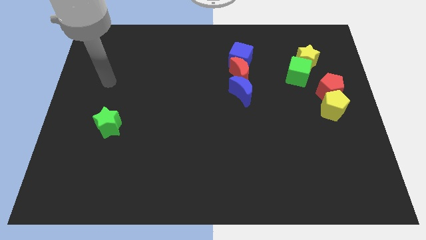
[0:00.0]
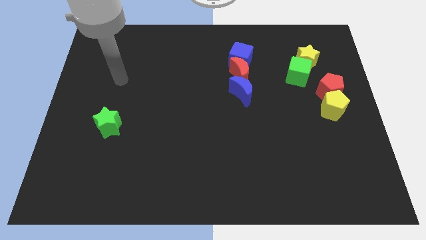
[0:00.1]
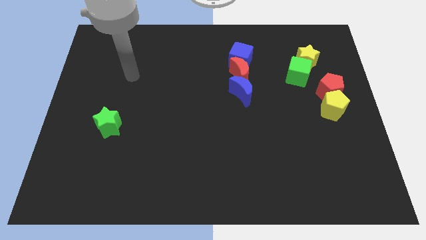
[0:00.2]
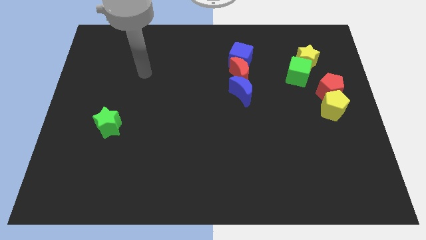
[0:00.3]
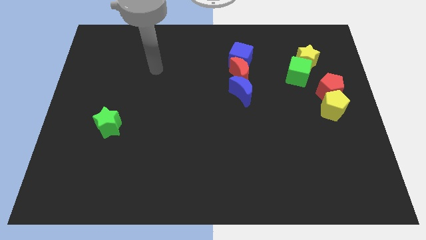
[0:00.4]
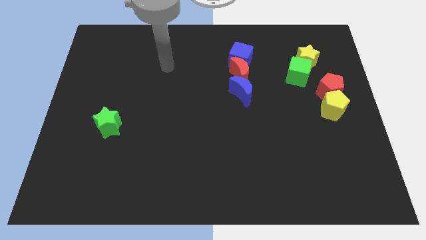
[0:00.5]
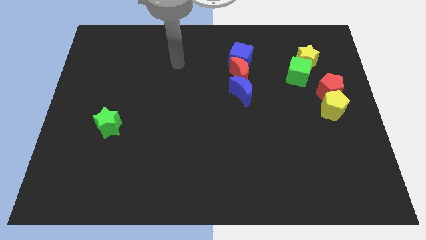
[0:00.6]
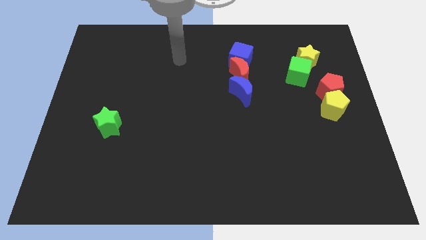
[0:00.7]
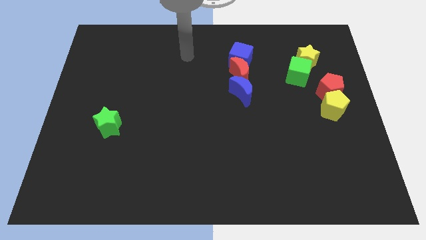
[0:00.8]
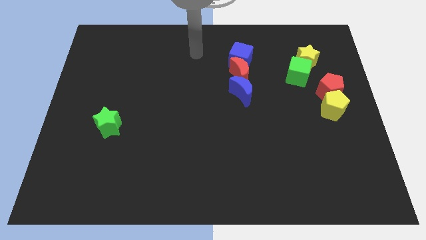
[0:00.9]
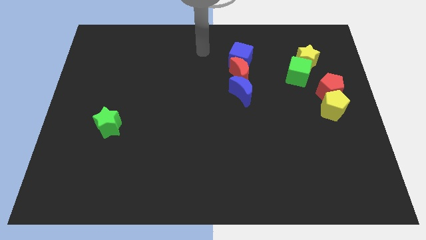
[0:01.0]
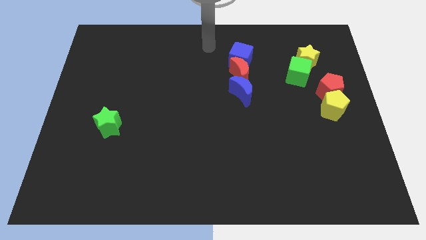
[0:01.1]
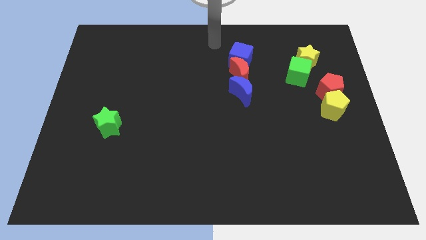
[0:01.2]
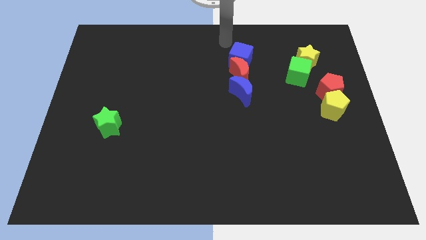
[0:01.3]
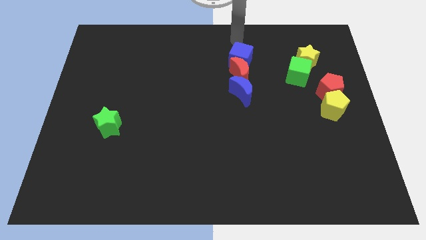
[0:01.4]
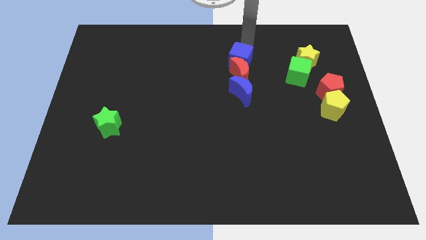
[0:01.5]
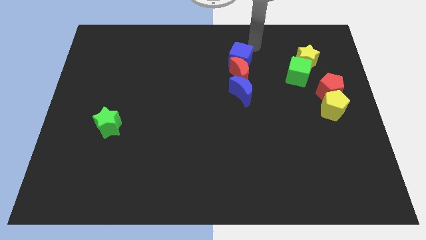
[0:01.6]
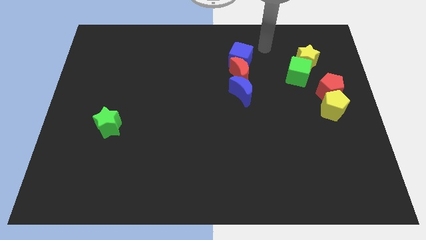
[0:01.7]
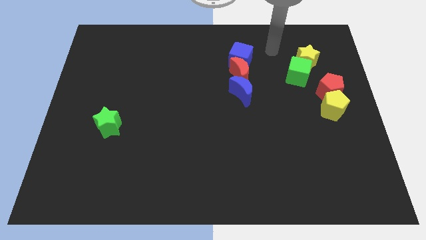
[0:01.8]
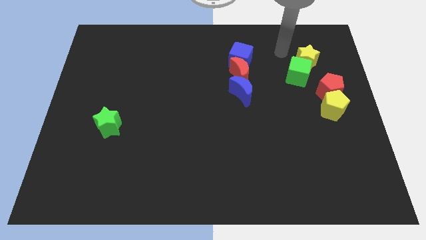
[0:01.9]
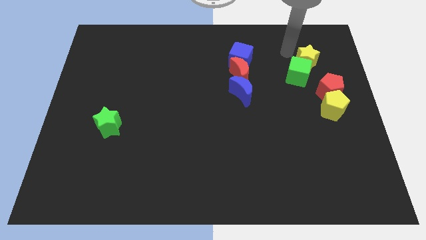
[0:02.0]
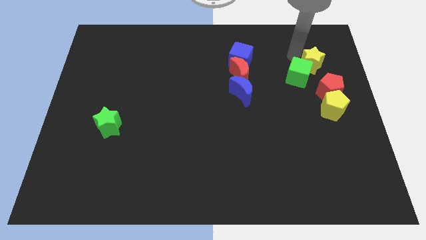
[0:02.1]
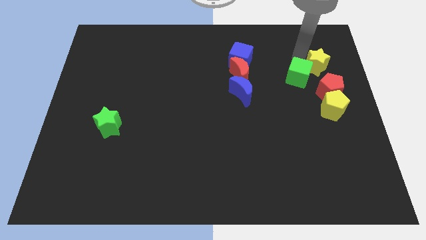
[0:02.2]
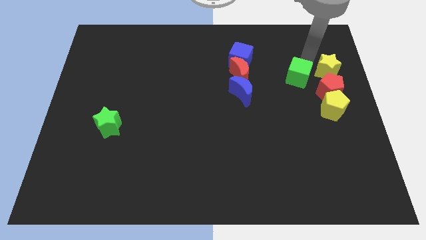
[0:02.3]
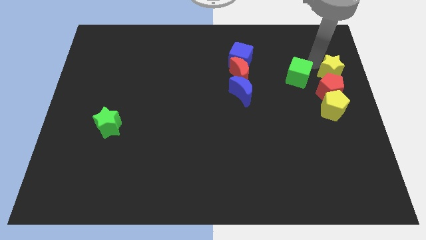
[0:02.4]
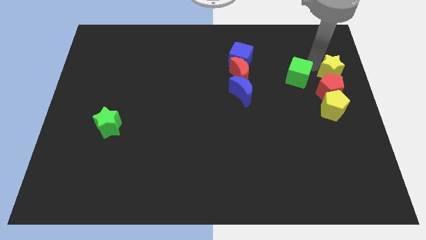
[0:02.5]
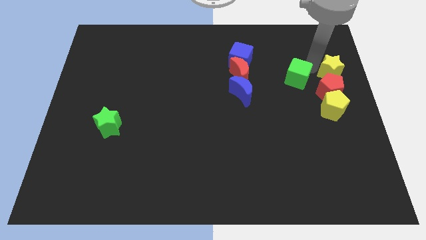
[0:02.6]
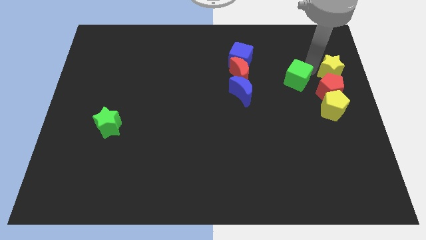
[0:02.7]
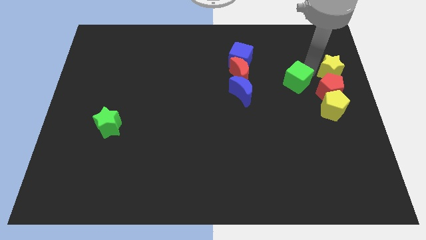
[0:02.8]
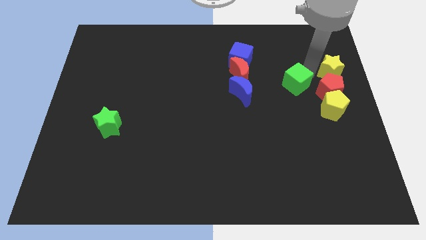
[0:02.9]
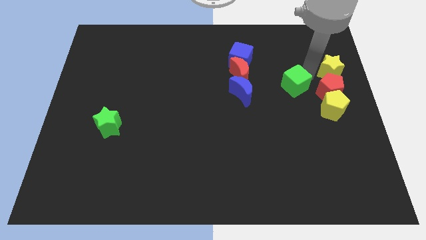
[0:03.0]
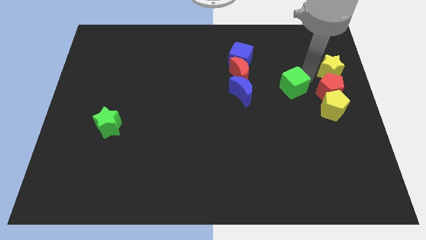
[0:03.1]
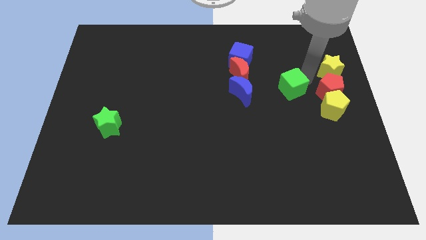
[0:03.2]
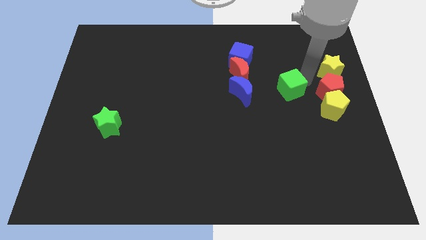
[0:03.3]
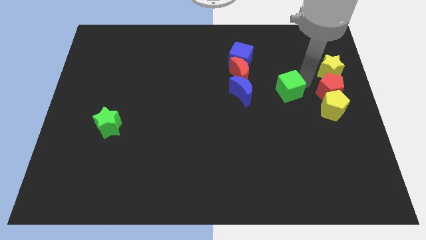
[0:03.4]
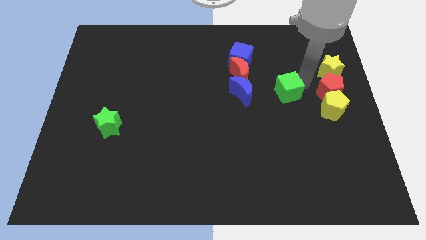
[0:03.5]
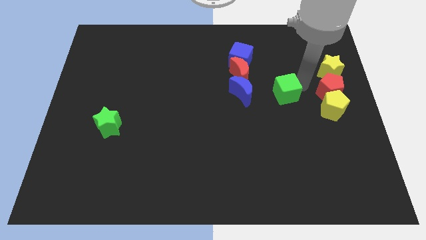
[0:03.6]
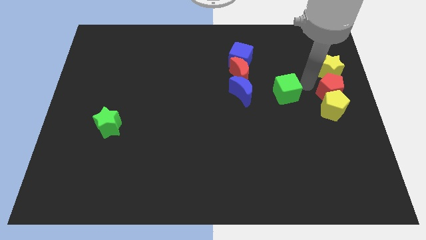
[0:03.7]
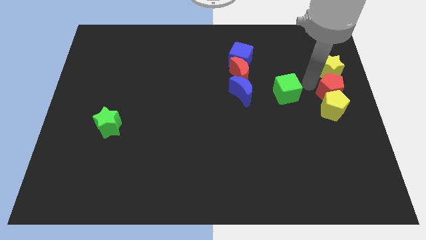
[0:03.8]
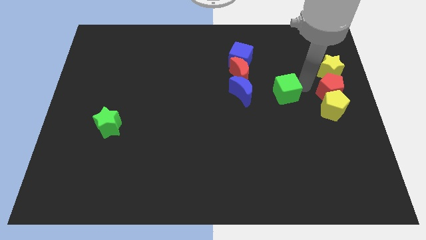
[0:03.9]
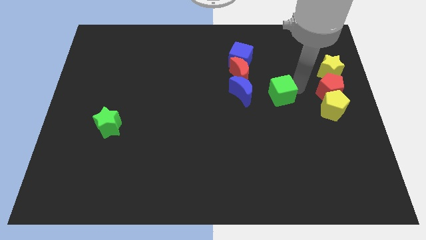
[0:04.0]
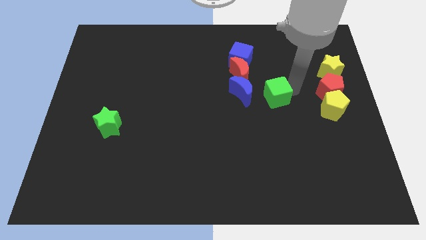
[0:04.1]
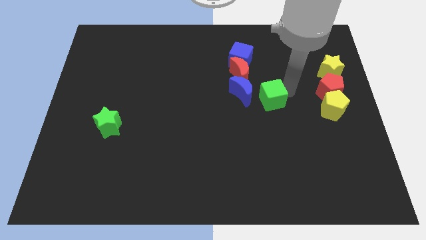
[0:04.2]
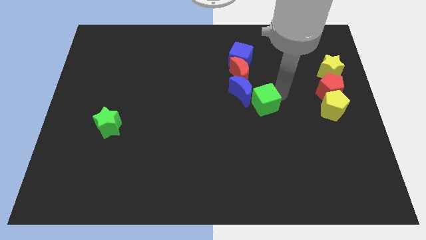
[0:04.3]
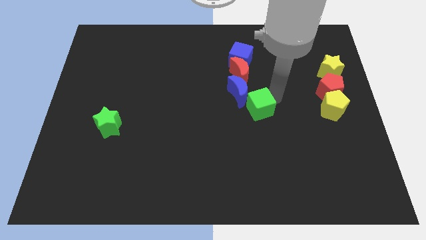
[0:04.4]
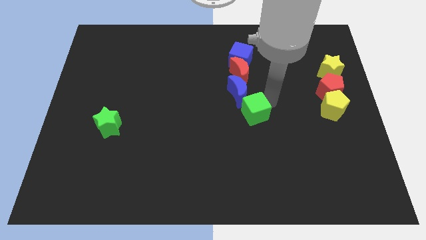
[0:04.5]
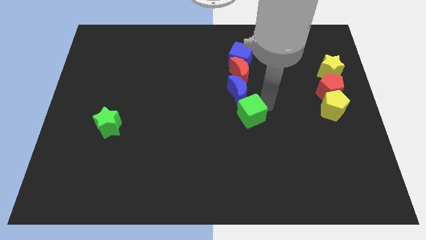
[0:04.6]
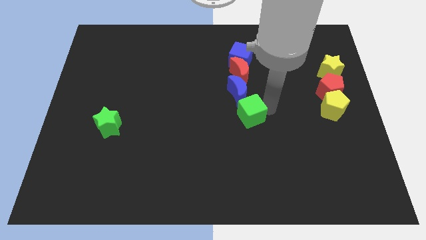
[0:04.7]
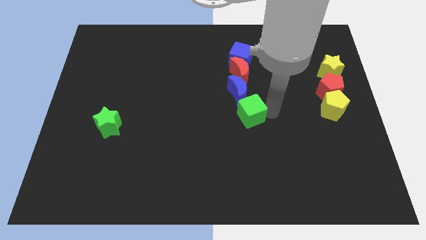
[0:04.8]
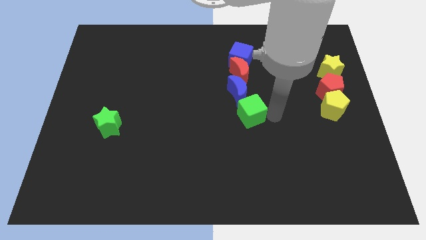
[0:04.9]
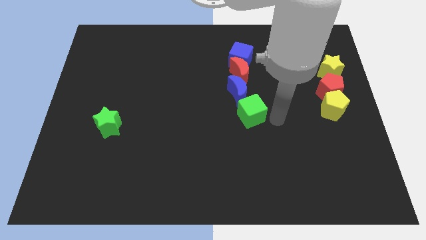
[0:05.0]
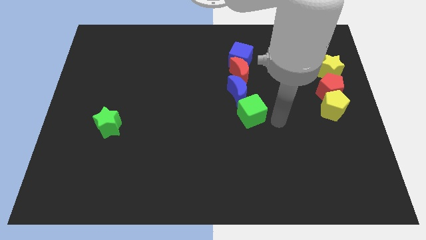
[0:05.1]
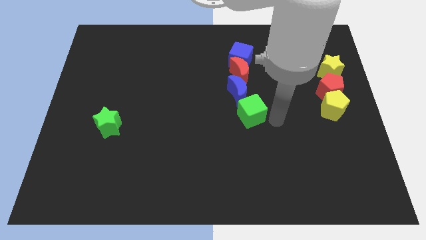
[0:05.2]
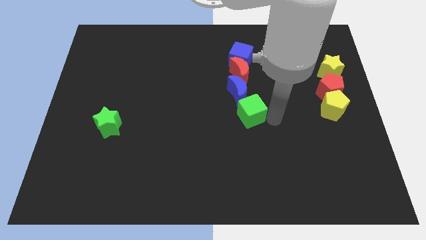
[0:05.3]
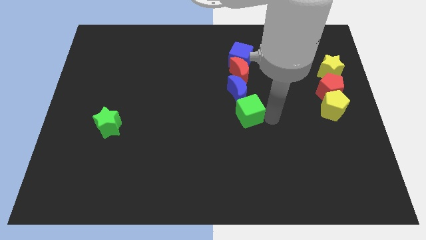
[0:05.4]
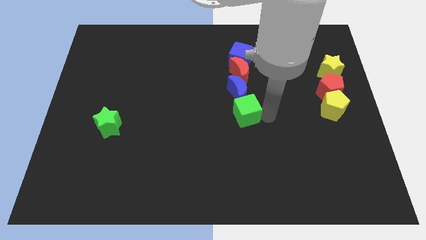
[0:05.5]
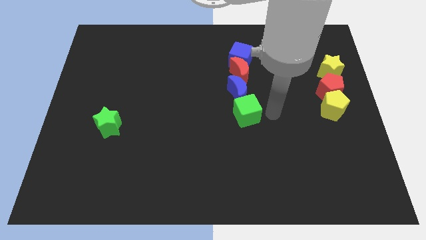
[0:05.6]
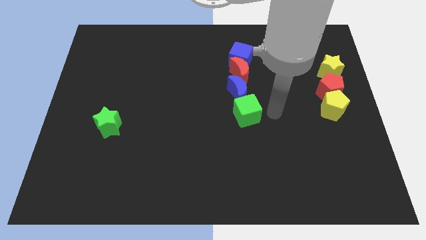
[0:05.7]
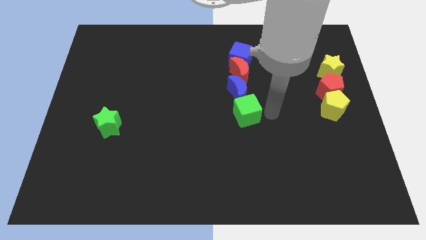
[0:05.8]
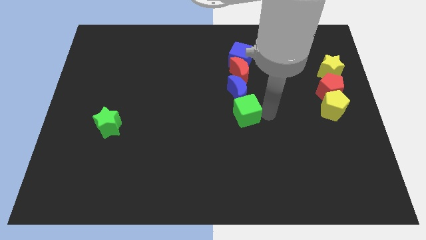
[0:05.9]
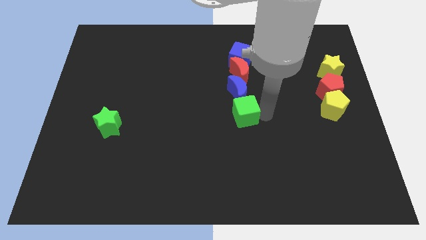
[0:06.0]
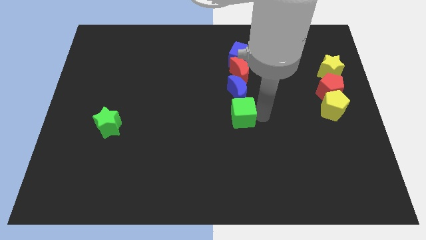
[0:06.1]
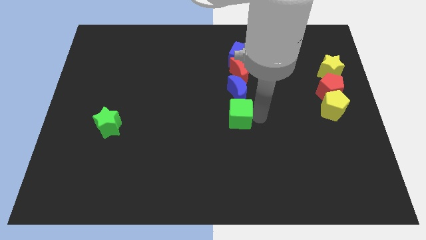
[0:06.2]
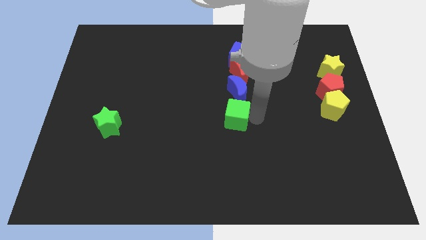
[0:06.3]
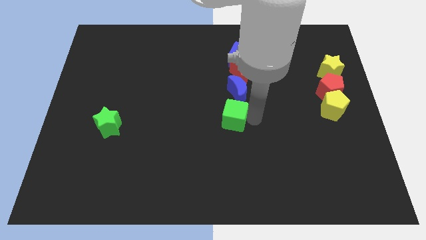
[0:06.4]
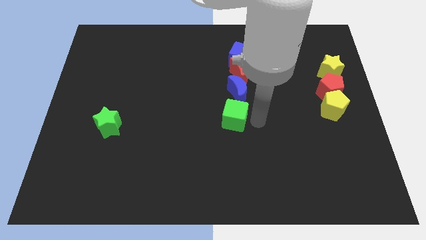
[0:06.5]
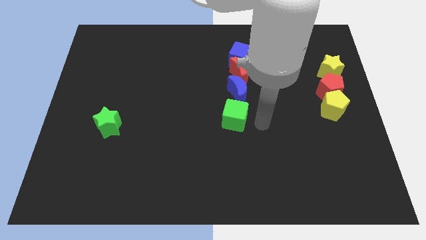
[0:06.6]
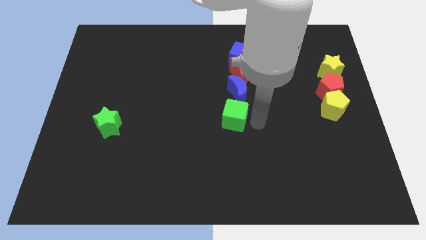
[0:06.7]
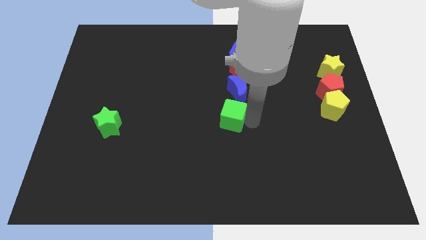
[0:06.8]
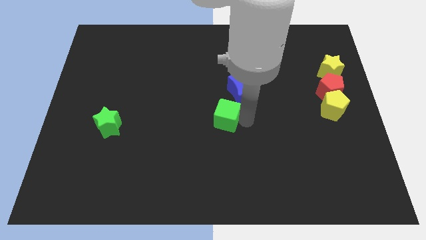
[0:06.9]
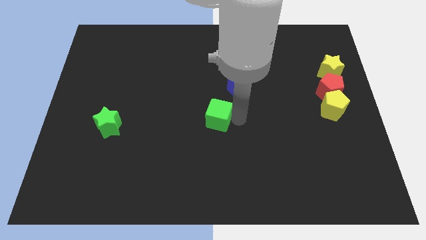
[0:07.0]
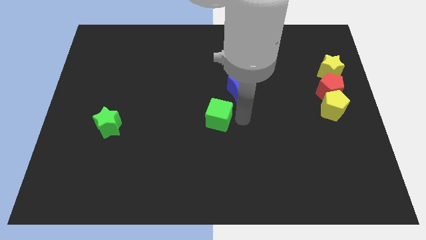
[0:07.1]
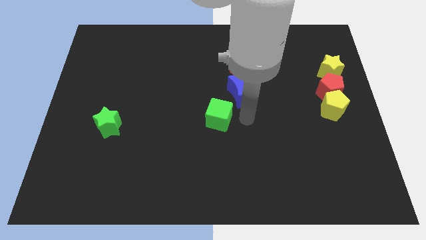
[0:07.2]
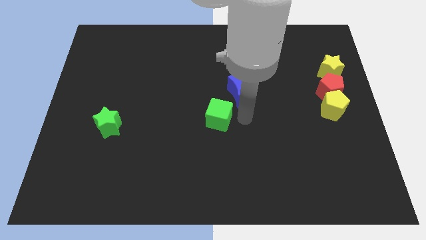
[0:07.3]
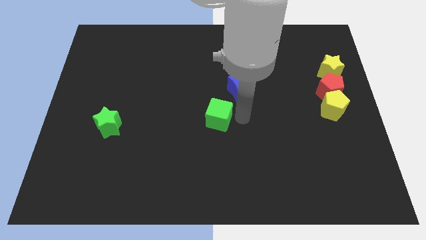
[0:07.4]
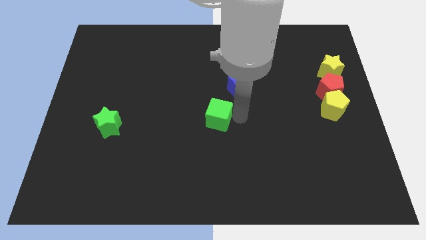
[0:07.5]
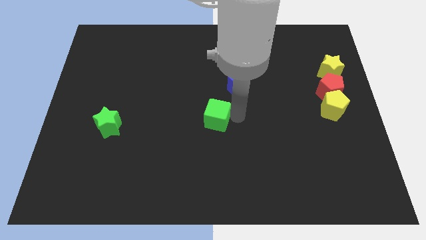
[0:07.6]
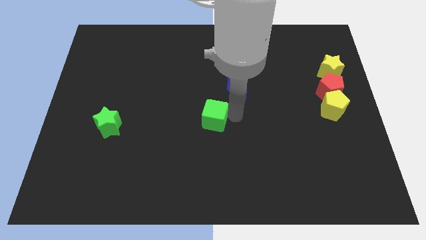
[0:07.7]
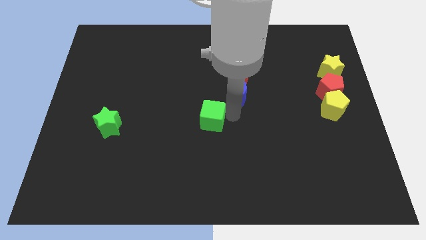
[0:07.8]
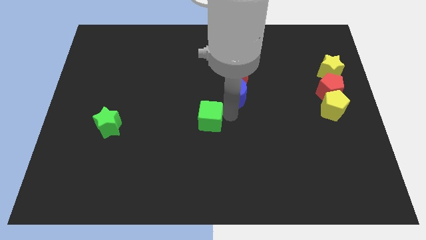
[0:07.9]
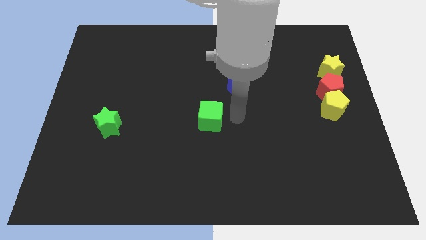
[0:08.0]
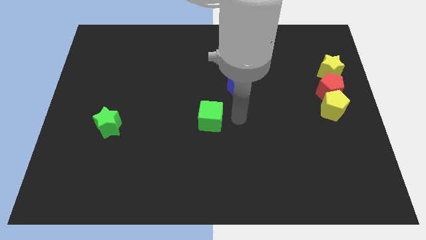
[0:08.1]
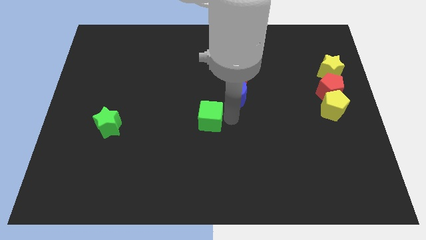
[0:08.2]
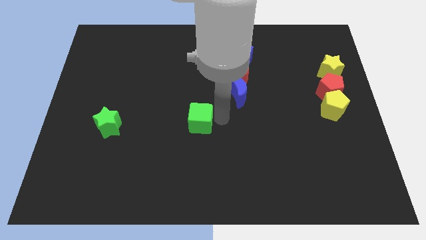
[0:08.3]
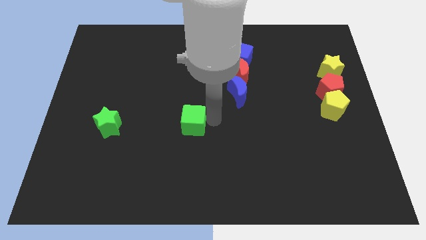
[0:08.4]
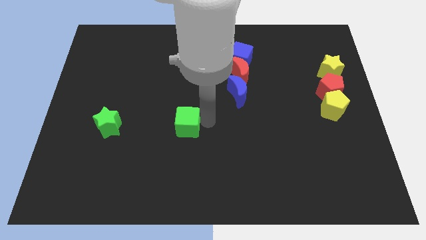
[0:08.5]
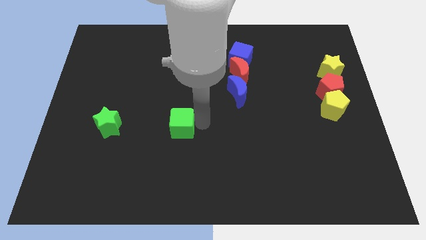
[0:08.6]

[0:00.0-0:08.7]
move the green cube just right of the green star
